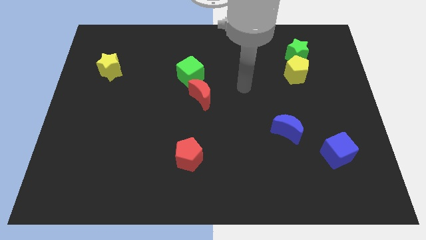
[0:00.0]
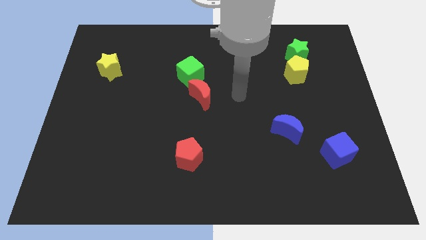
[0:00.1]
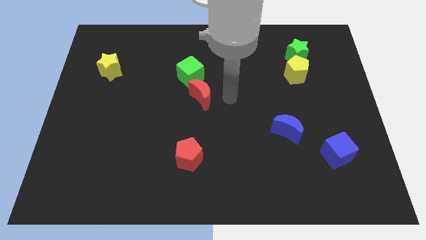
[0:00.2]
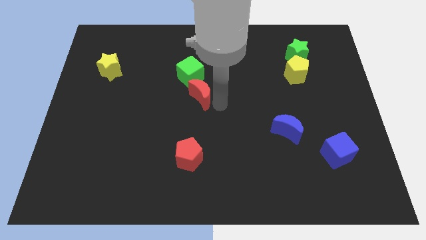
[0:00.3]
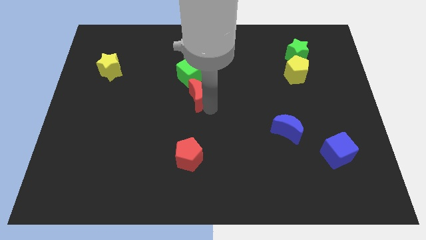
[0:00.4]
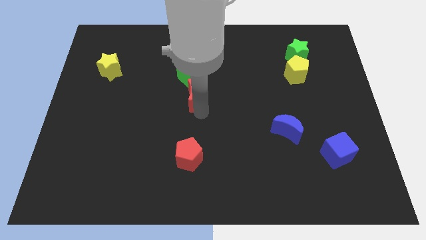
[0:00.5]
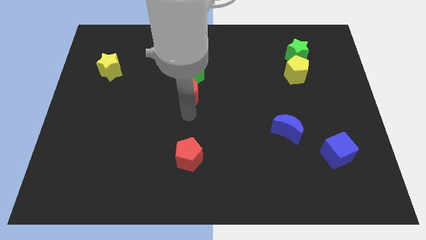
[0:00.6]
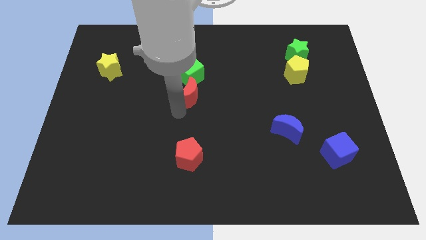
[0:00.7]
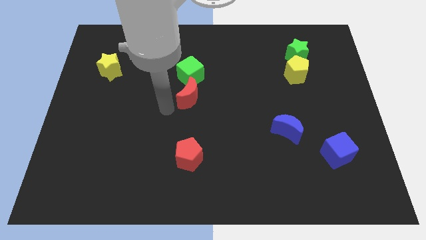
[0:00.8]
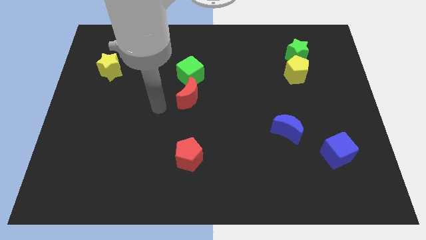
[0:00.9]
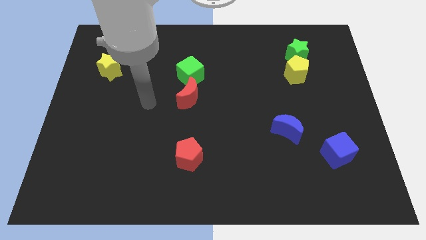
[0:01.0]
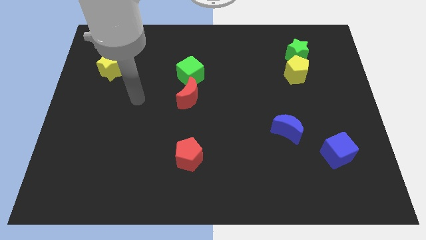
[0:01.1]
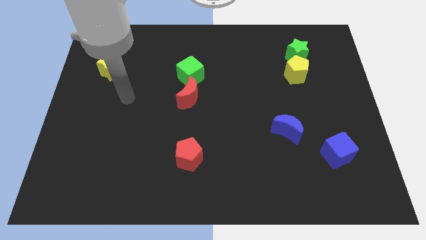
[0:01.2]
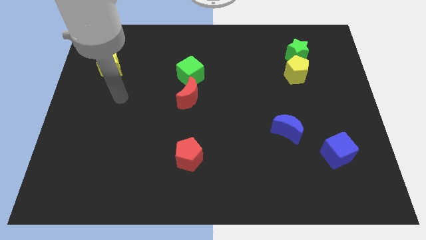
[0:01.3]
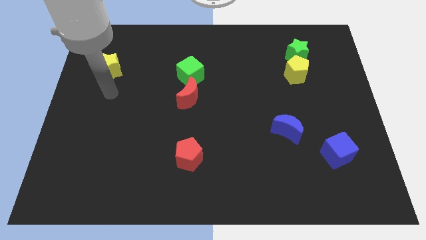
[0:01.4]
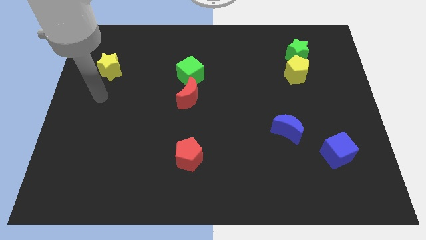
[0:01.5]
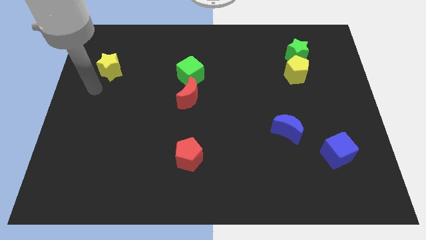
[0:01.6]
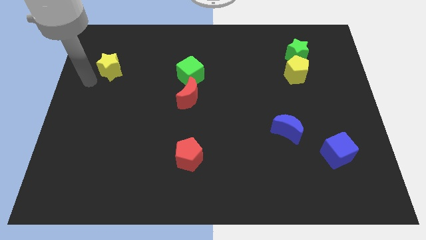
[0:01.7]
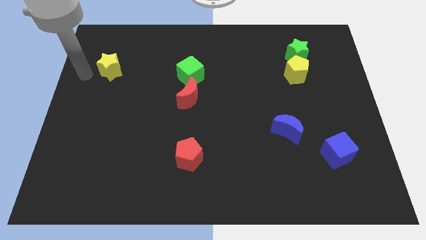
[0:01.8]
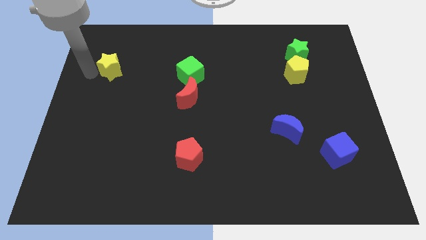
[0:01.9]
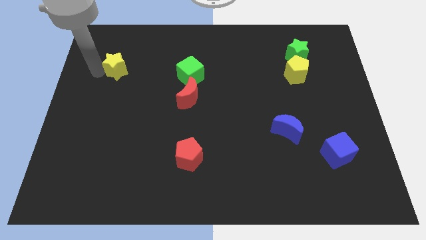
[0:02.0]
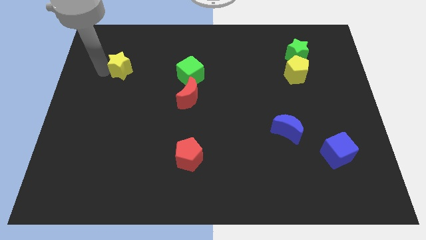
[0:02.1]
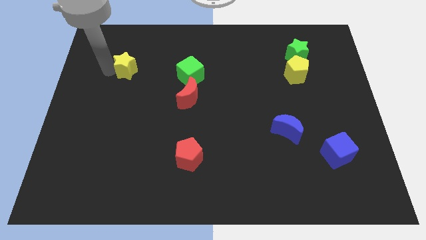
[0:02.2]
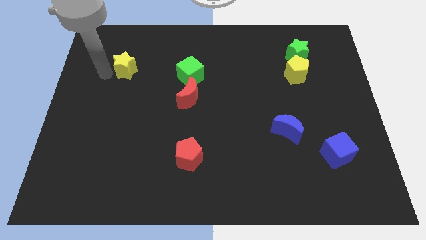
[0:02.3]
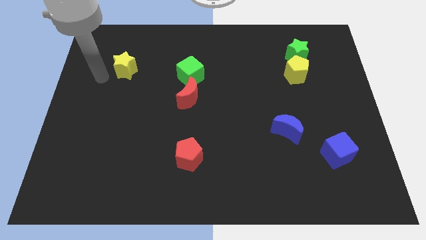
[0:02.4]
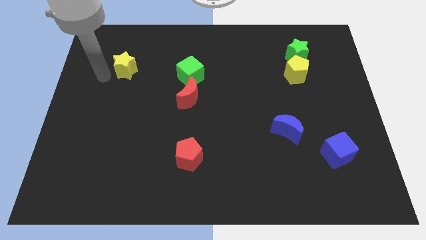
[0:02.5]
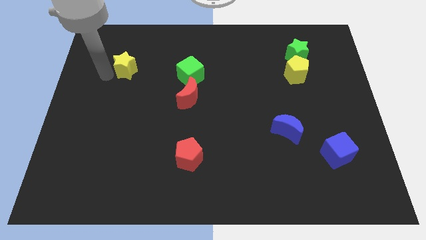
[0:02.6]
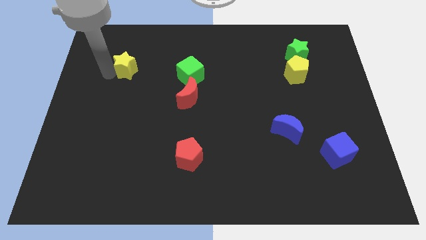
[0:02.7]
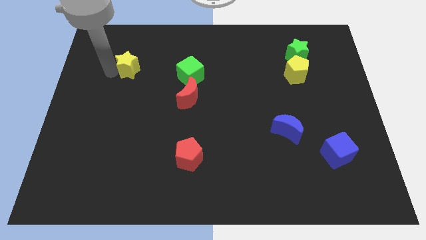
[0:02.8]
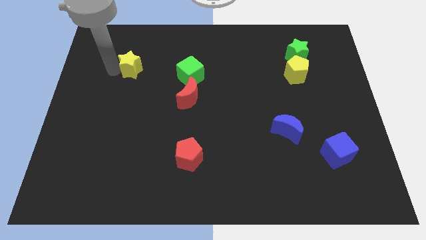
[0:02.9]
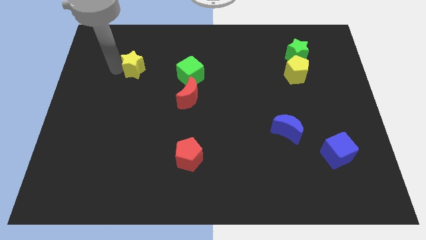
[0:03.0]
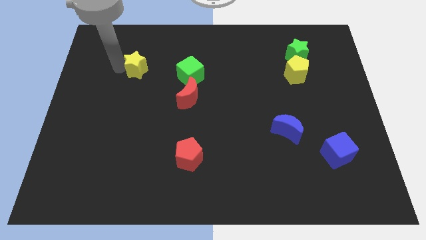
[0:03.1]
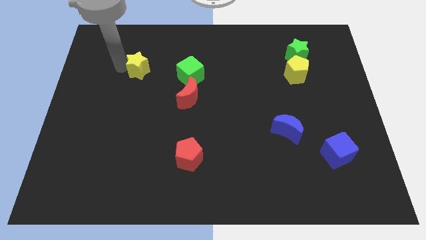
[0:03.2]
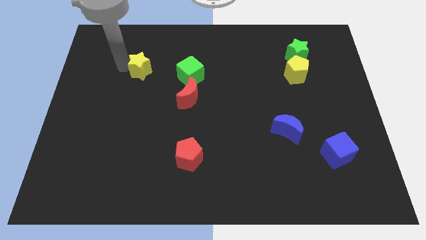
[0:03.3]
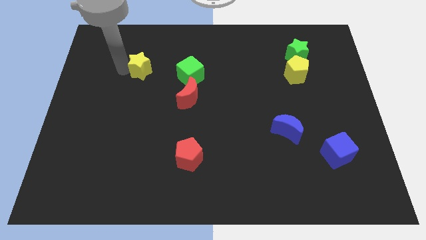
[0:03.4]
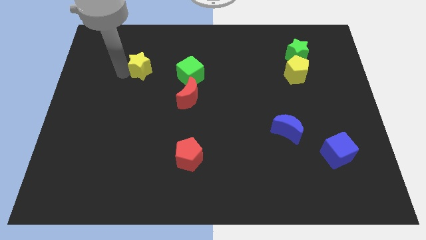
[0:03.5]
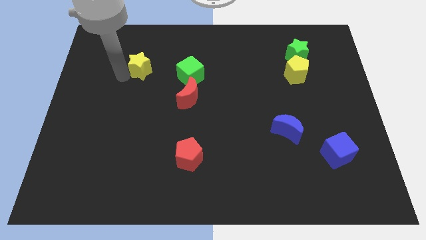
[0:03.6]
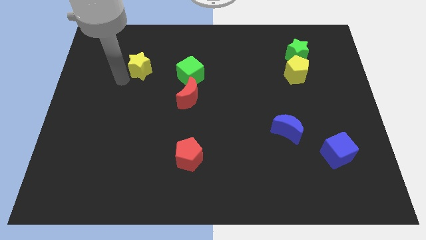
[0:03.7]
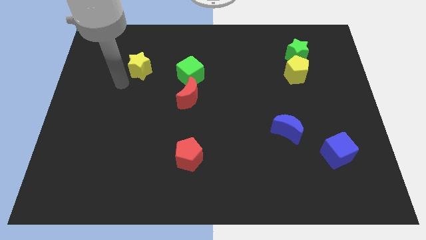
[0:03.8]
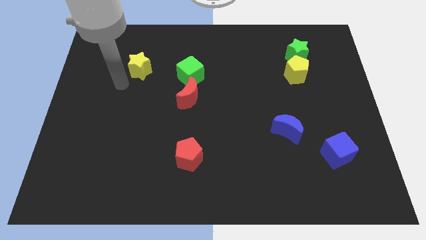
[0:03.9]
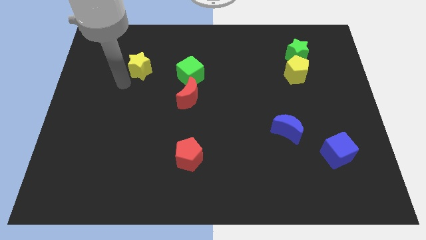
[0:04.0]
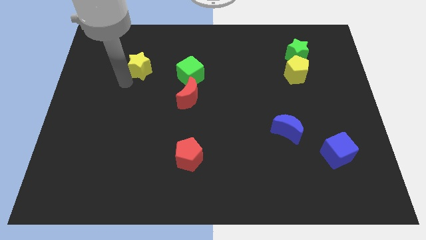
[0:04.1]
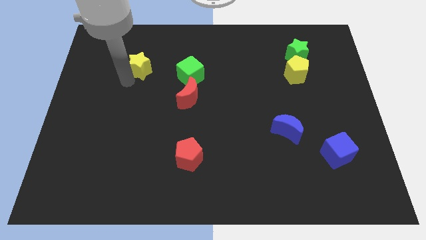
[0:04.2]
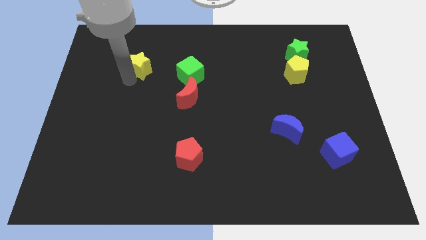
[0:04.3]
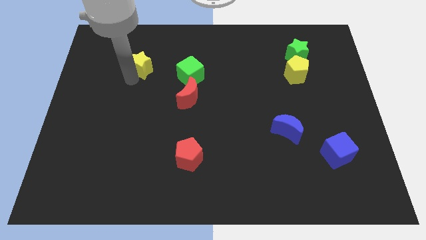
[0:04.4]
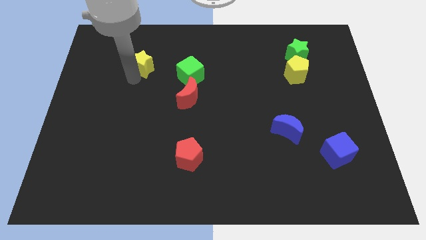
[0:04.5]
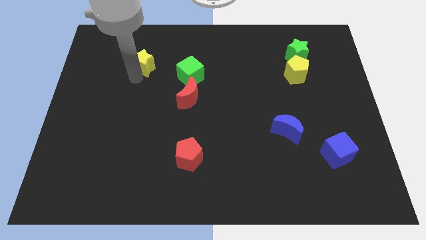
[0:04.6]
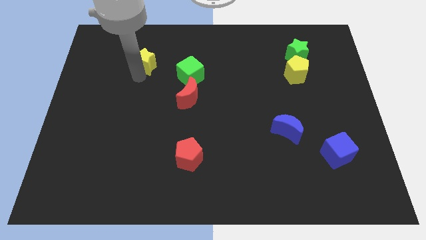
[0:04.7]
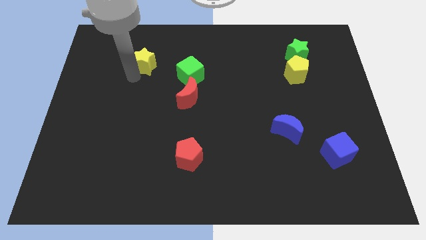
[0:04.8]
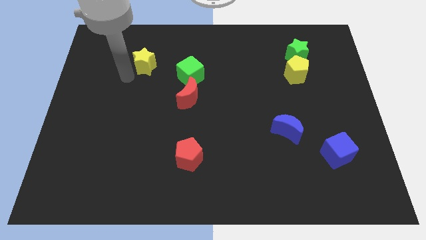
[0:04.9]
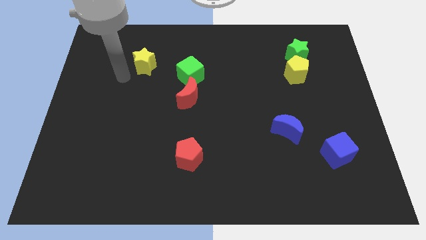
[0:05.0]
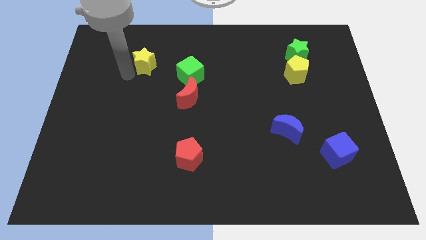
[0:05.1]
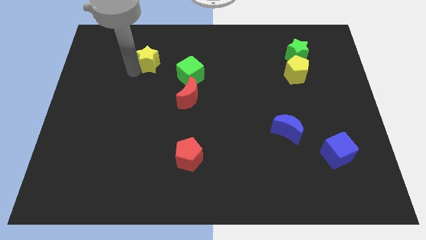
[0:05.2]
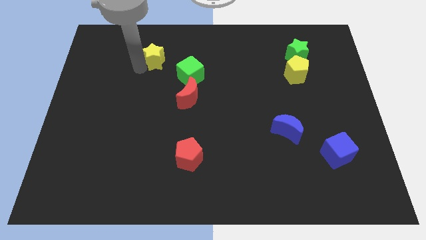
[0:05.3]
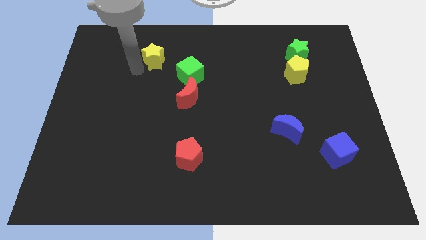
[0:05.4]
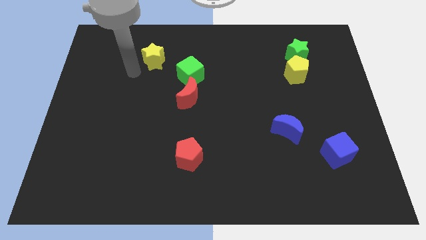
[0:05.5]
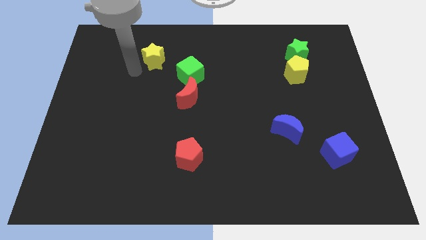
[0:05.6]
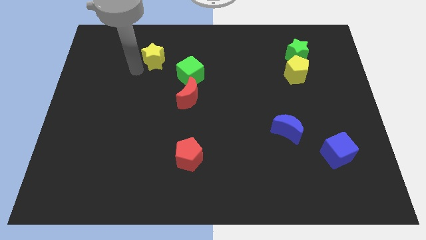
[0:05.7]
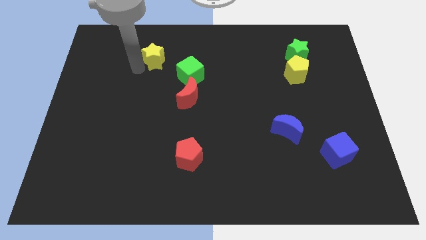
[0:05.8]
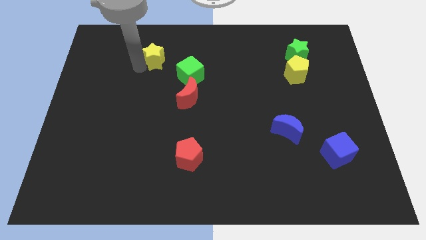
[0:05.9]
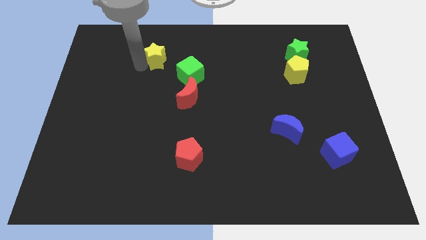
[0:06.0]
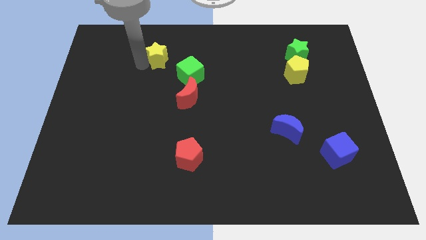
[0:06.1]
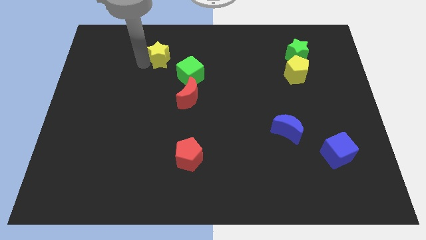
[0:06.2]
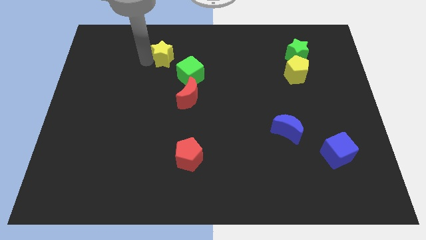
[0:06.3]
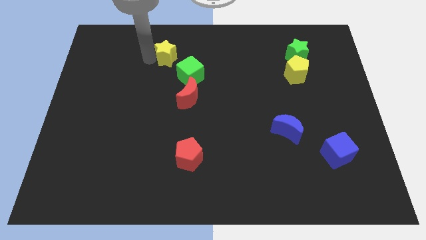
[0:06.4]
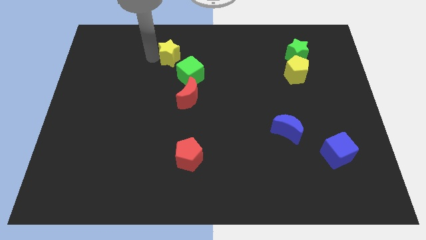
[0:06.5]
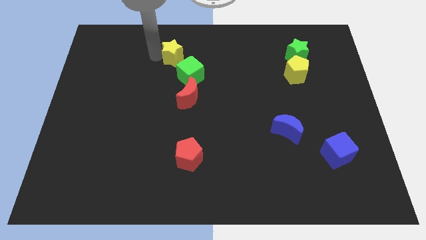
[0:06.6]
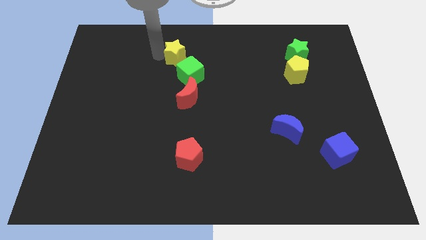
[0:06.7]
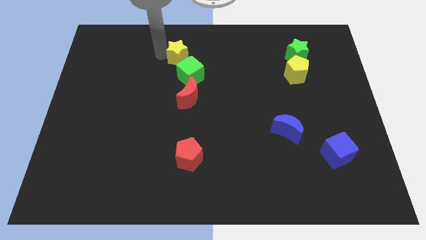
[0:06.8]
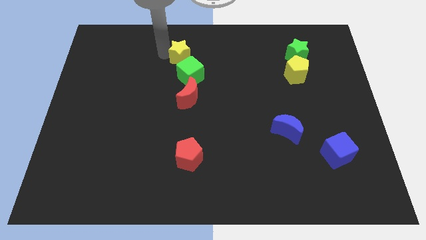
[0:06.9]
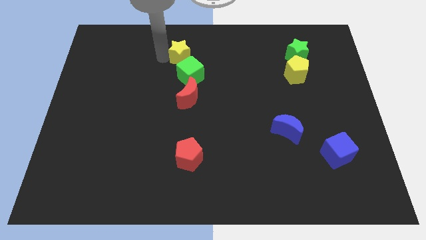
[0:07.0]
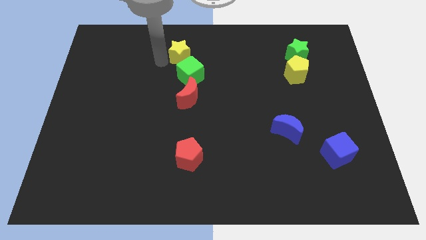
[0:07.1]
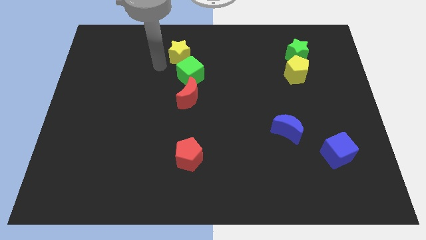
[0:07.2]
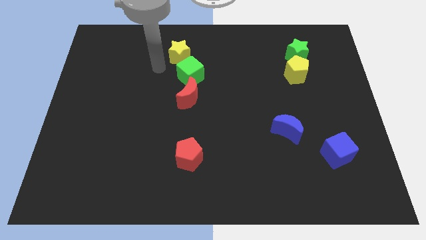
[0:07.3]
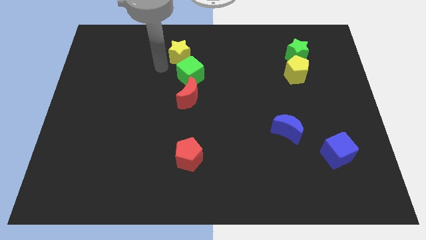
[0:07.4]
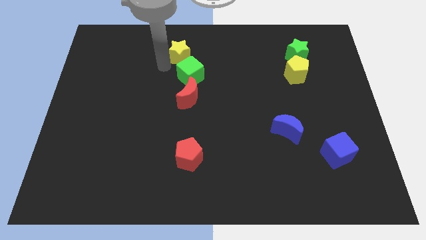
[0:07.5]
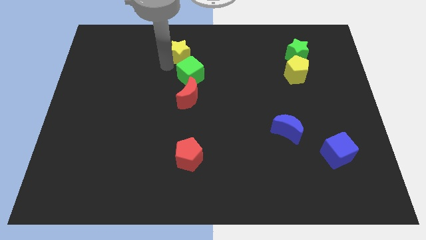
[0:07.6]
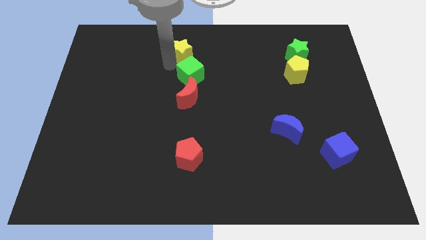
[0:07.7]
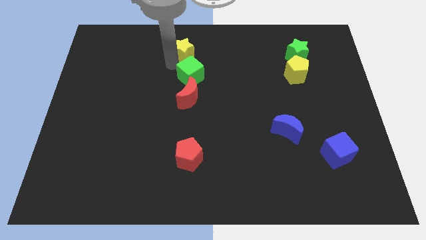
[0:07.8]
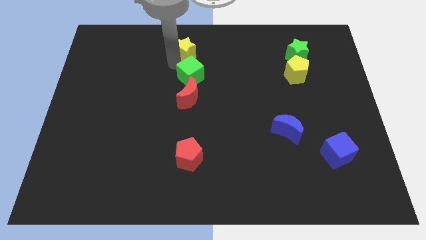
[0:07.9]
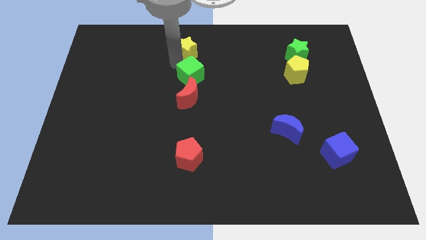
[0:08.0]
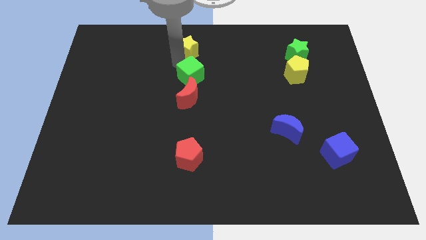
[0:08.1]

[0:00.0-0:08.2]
put the yellow star to the top side
